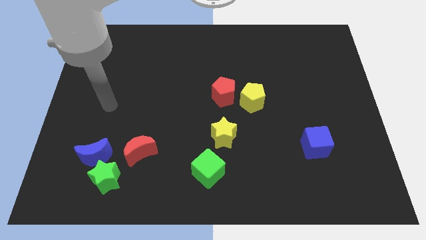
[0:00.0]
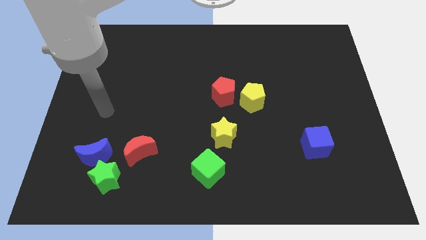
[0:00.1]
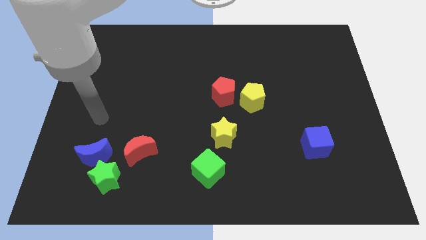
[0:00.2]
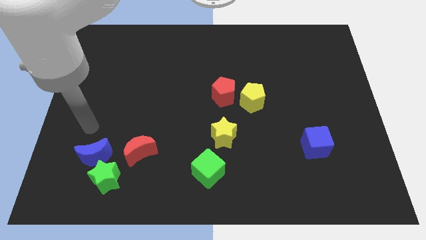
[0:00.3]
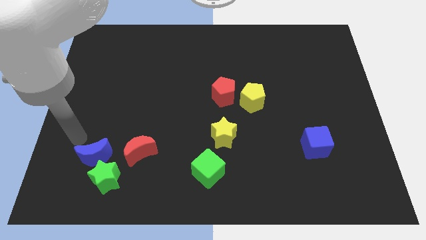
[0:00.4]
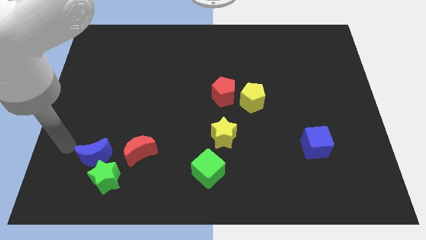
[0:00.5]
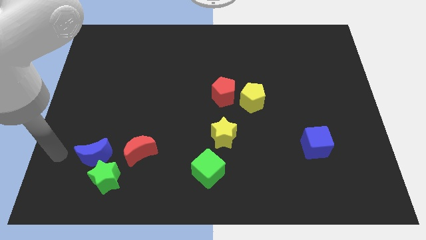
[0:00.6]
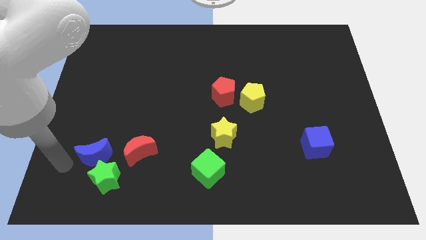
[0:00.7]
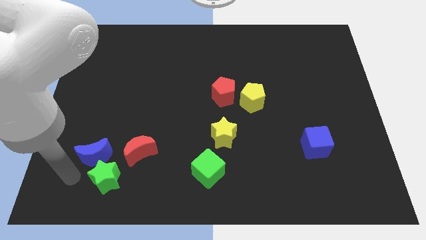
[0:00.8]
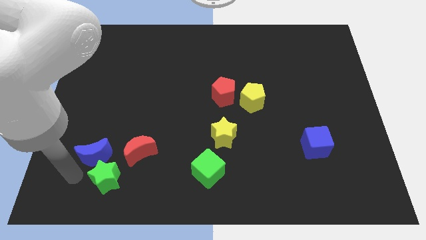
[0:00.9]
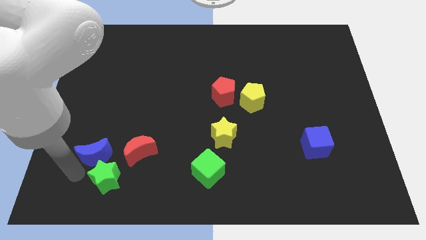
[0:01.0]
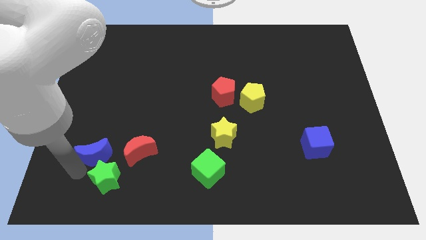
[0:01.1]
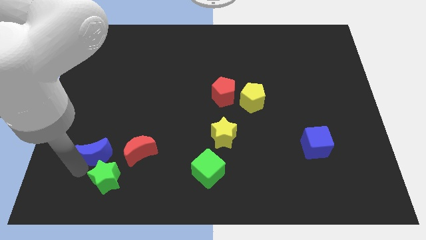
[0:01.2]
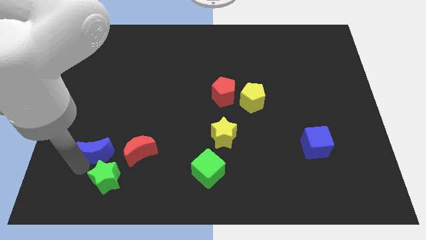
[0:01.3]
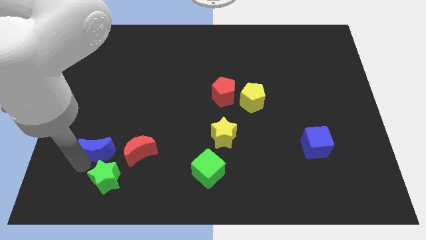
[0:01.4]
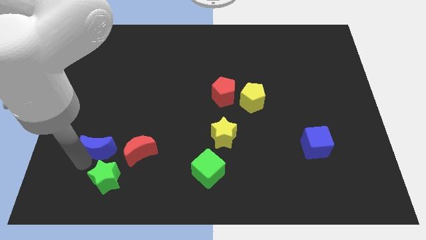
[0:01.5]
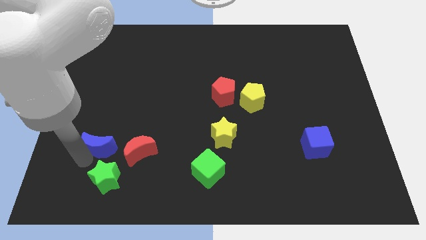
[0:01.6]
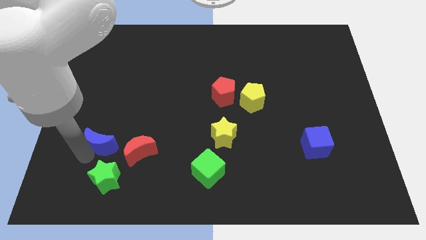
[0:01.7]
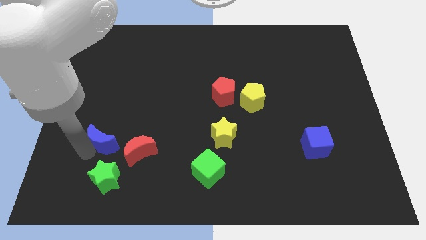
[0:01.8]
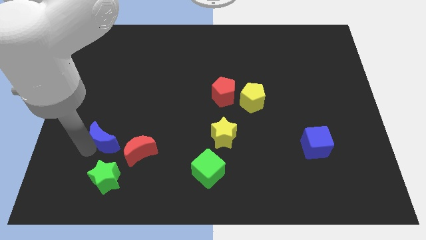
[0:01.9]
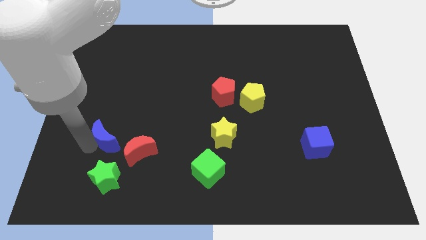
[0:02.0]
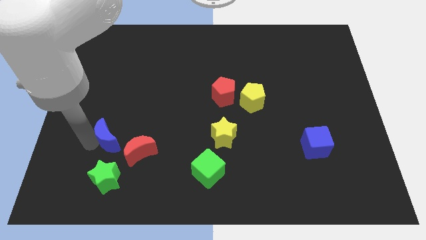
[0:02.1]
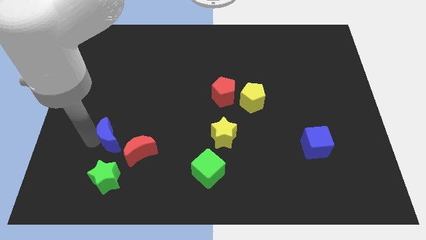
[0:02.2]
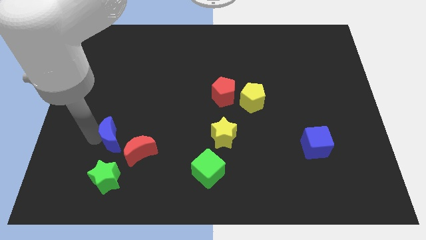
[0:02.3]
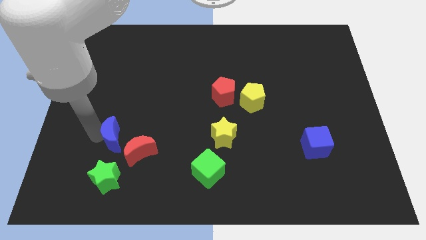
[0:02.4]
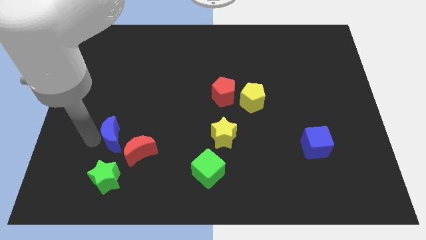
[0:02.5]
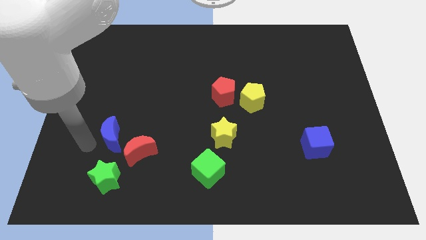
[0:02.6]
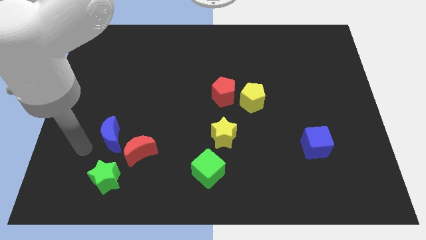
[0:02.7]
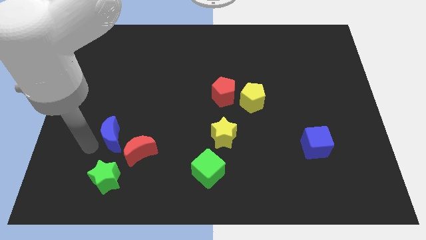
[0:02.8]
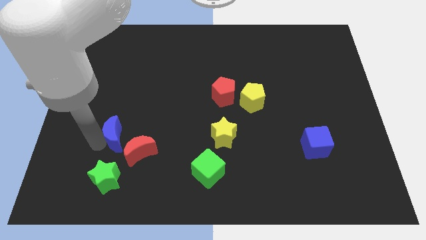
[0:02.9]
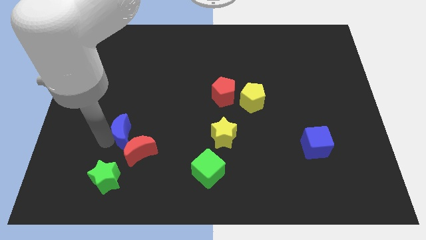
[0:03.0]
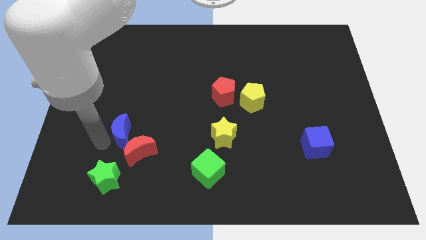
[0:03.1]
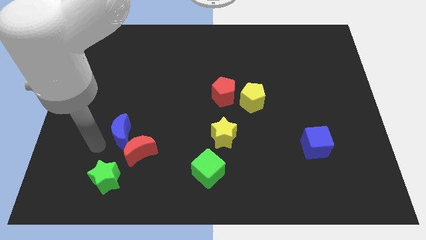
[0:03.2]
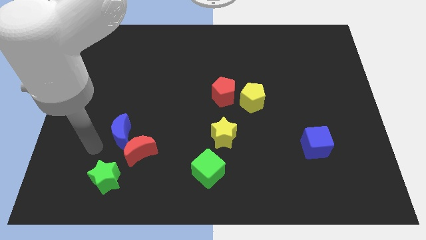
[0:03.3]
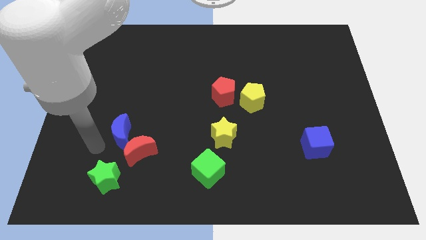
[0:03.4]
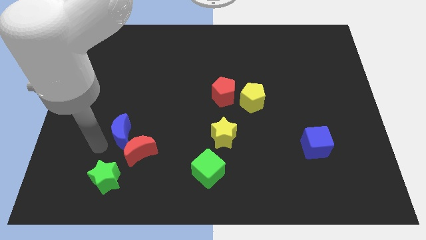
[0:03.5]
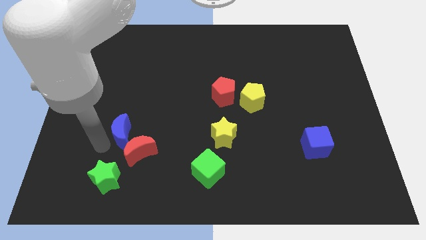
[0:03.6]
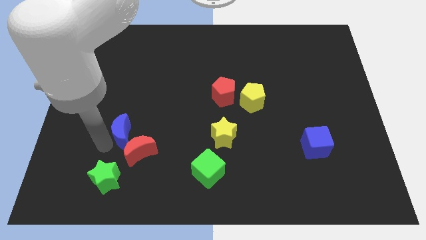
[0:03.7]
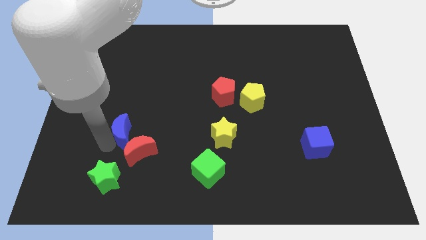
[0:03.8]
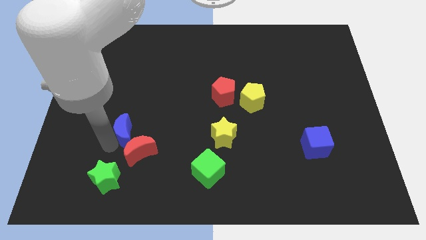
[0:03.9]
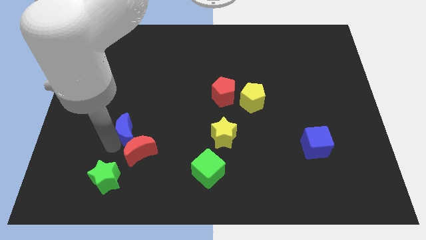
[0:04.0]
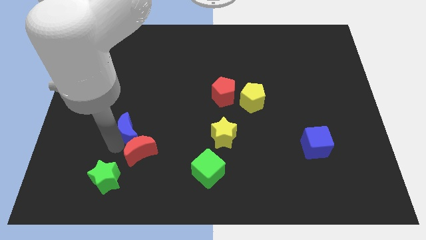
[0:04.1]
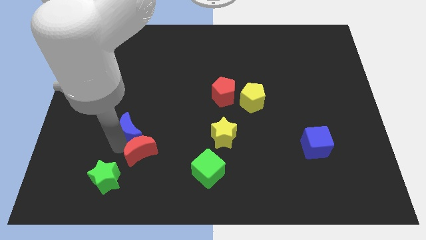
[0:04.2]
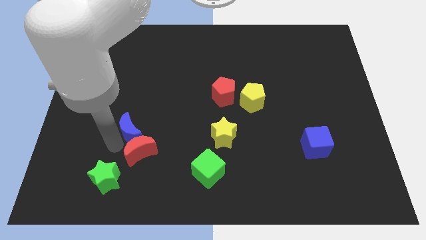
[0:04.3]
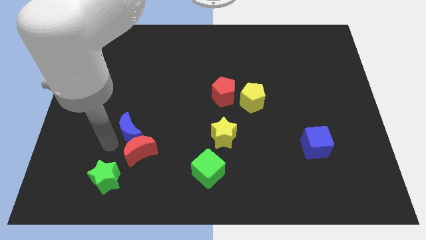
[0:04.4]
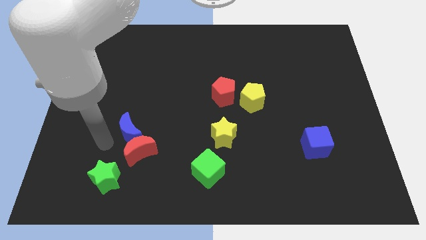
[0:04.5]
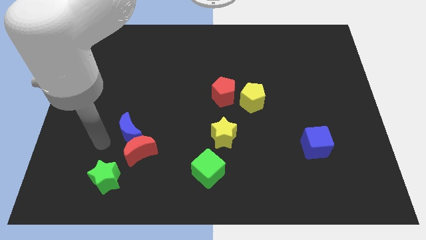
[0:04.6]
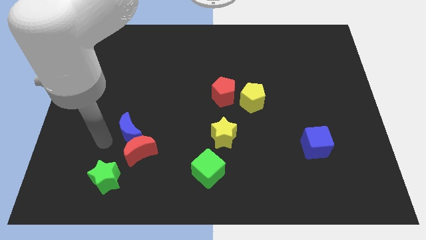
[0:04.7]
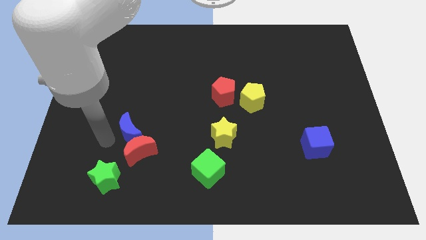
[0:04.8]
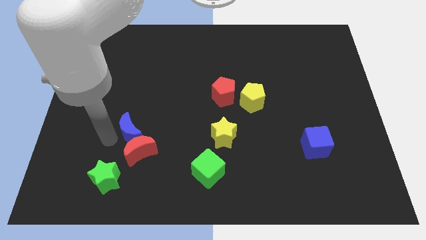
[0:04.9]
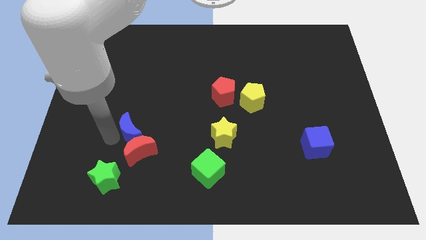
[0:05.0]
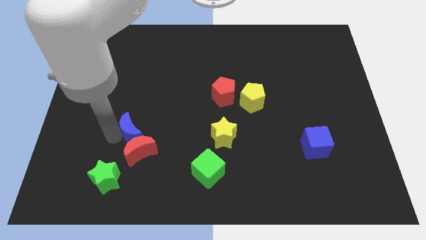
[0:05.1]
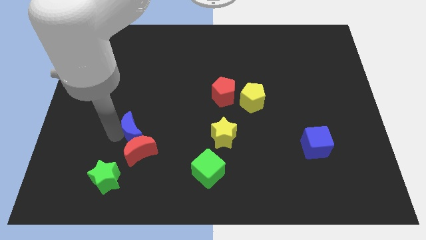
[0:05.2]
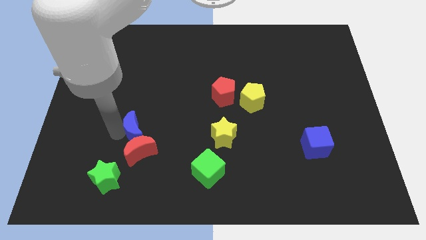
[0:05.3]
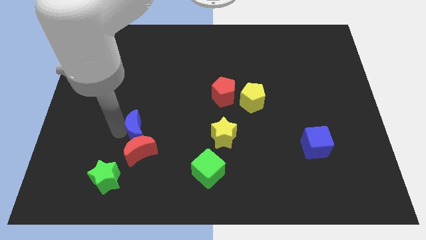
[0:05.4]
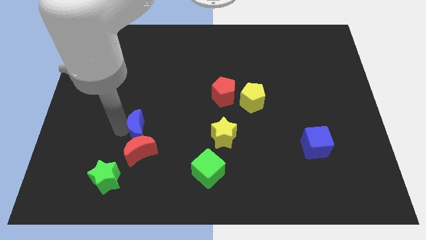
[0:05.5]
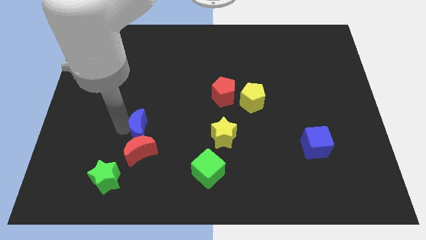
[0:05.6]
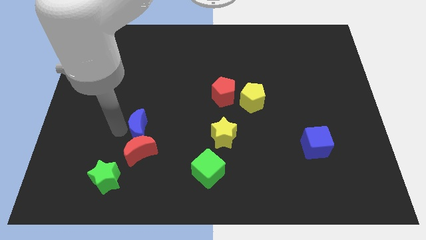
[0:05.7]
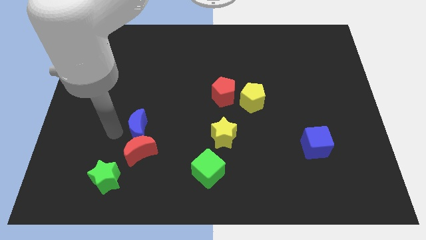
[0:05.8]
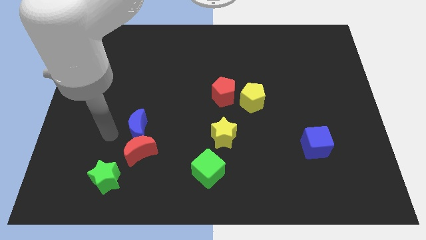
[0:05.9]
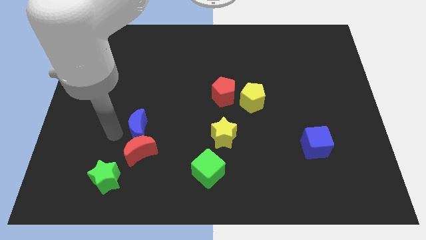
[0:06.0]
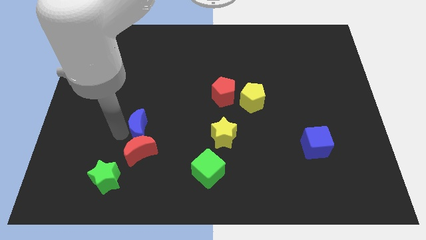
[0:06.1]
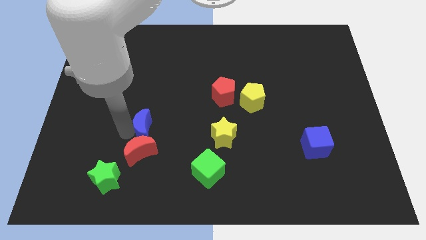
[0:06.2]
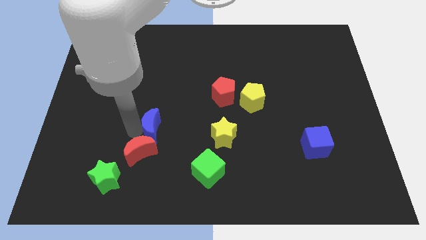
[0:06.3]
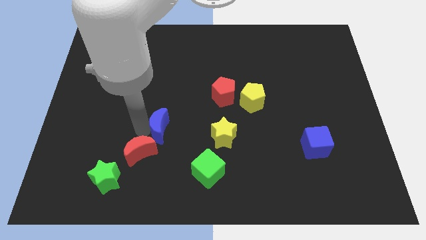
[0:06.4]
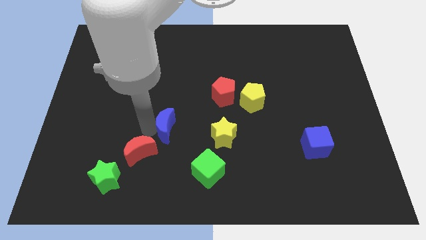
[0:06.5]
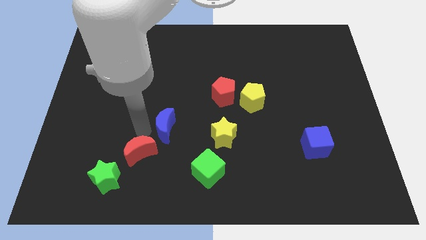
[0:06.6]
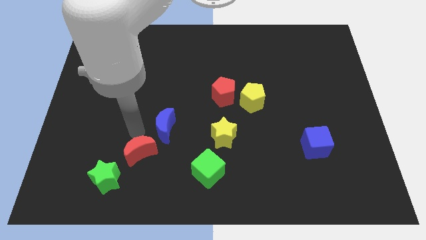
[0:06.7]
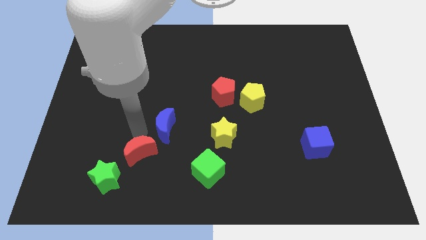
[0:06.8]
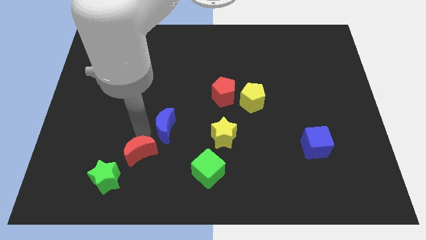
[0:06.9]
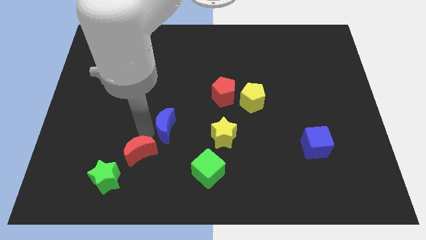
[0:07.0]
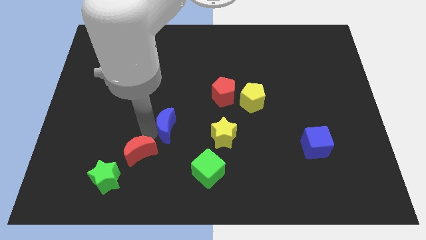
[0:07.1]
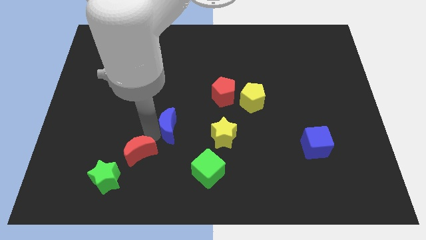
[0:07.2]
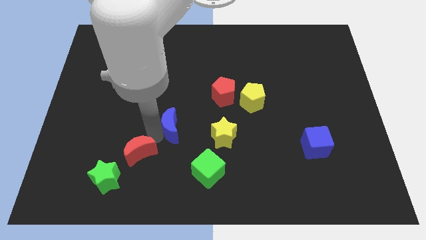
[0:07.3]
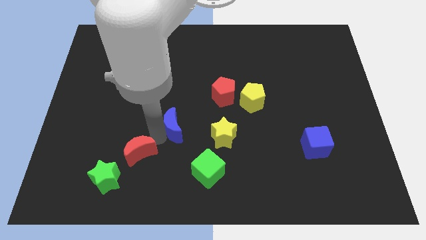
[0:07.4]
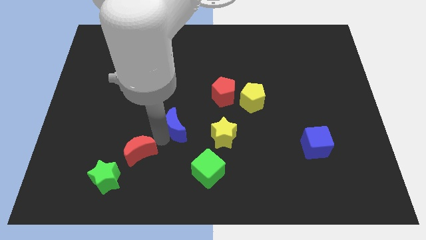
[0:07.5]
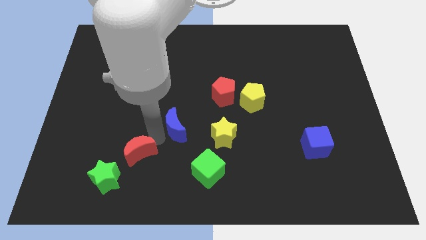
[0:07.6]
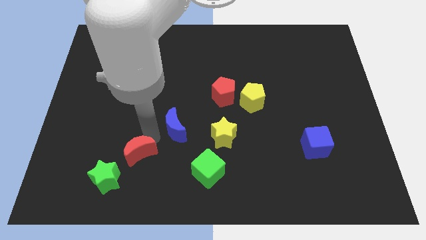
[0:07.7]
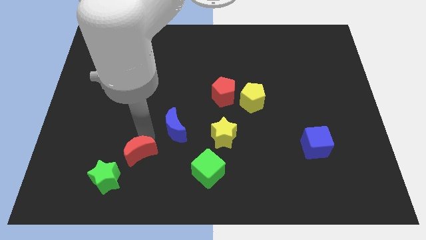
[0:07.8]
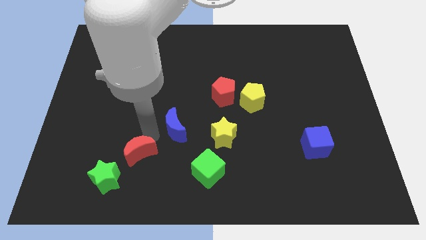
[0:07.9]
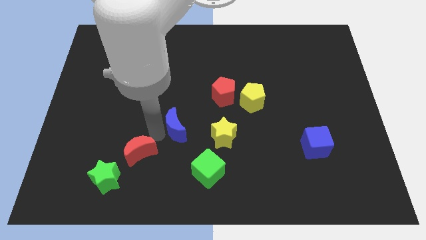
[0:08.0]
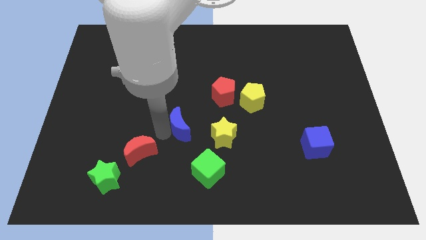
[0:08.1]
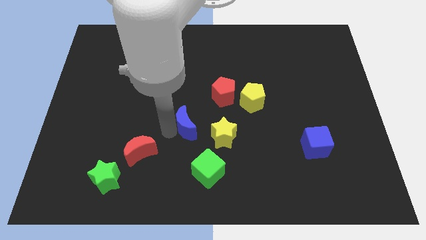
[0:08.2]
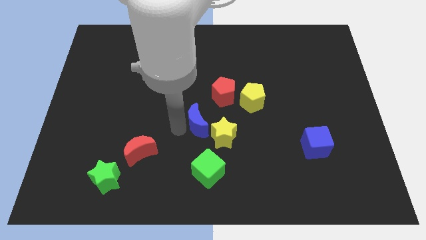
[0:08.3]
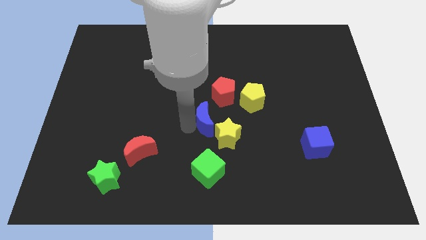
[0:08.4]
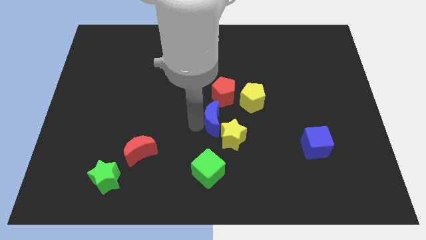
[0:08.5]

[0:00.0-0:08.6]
move the blue moon to the bottom left of the yellow pentagon
